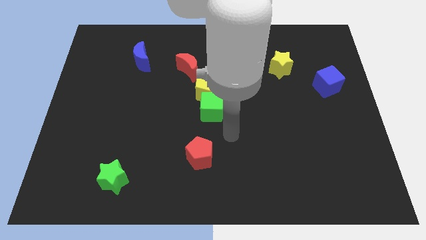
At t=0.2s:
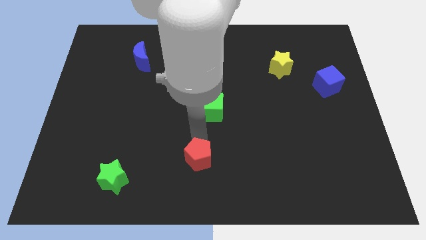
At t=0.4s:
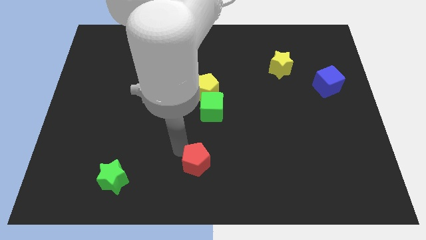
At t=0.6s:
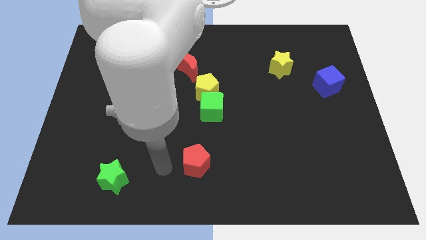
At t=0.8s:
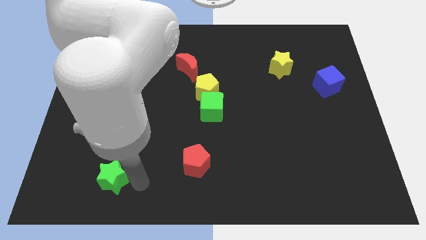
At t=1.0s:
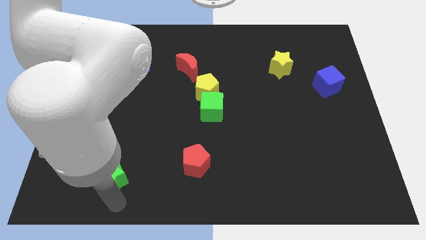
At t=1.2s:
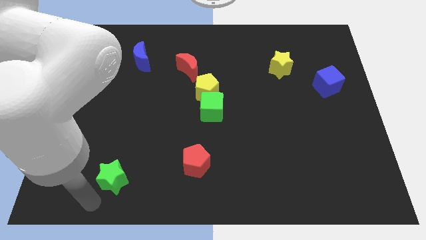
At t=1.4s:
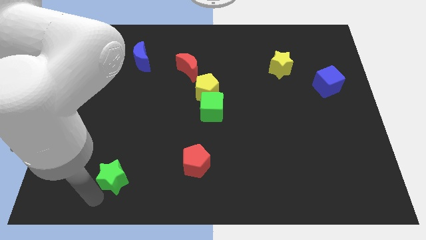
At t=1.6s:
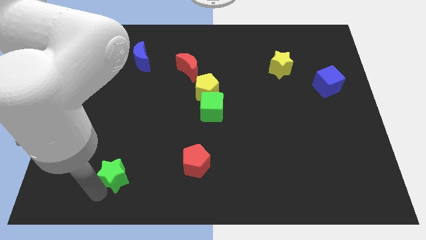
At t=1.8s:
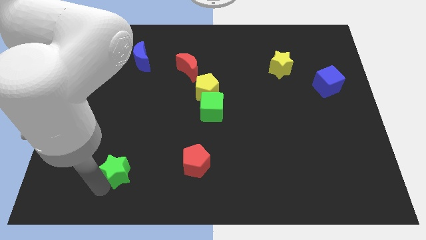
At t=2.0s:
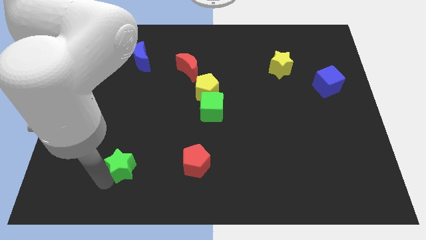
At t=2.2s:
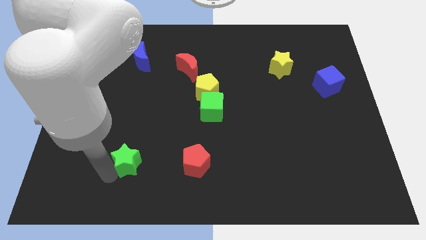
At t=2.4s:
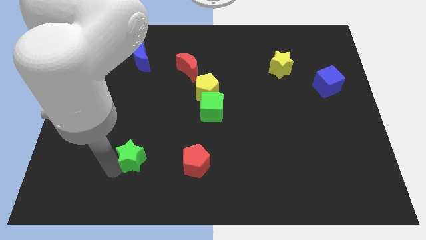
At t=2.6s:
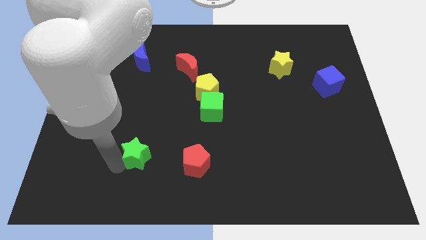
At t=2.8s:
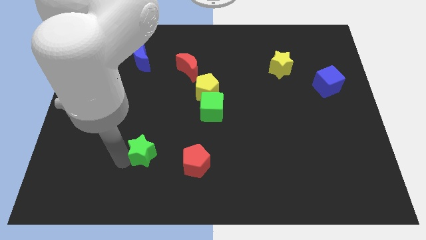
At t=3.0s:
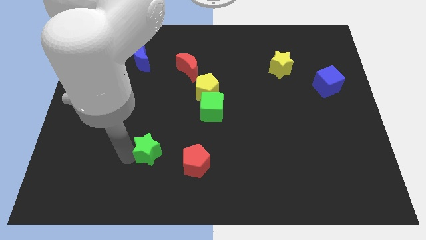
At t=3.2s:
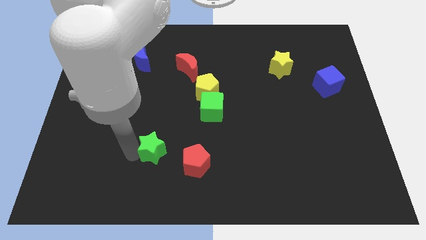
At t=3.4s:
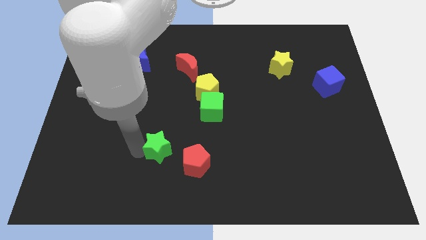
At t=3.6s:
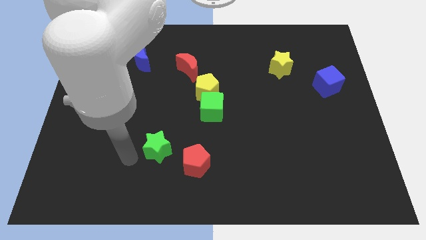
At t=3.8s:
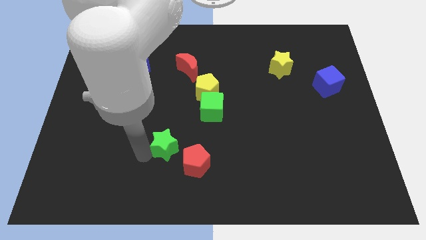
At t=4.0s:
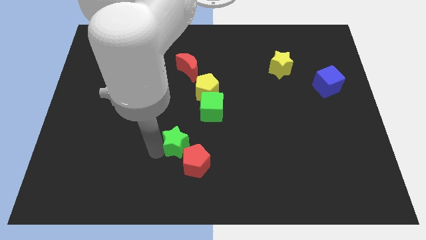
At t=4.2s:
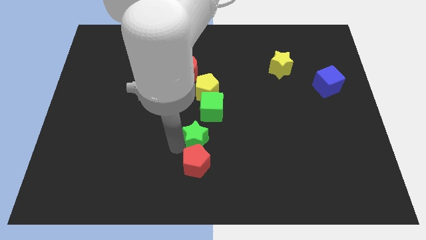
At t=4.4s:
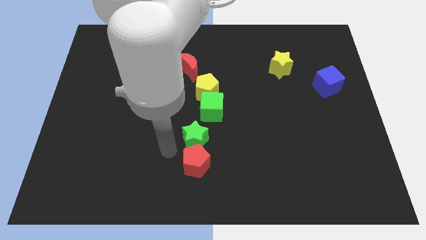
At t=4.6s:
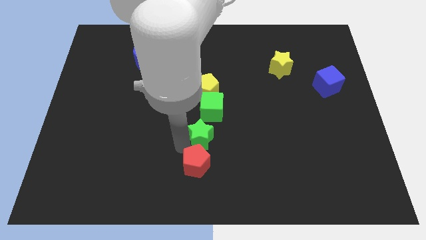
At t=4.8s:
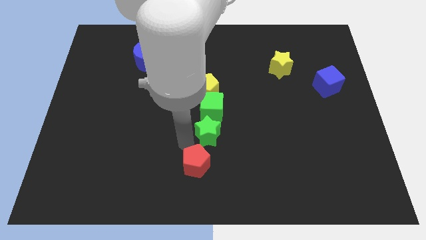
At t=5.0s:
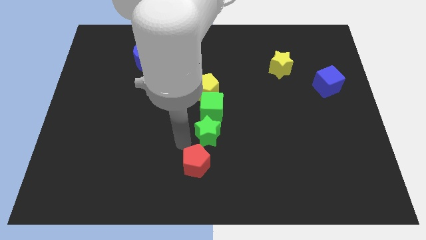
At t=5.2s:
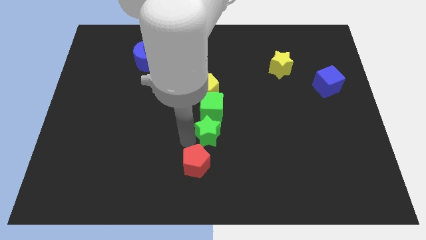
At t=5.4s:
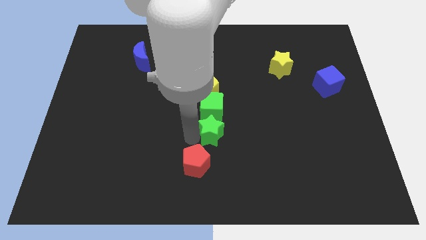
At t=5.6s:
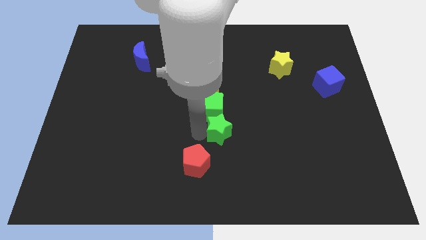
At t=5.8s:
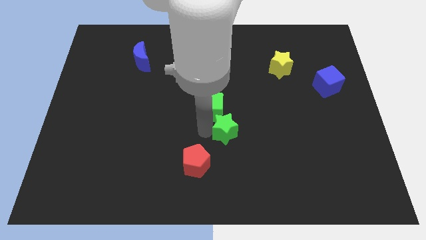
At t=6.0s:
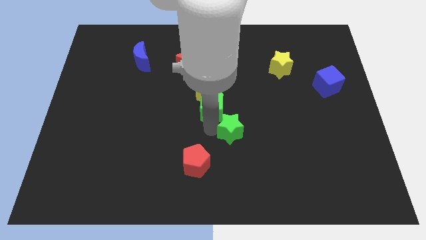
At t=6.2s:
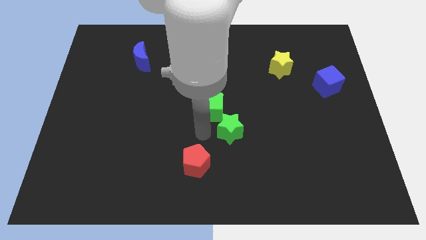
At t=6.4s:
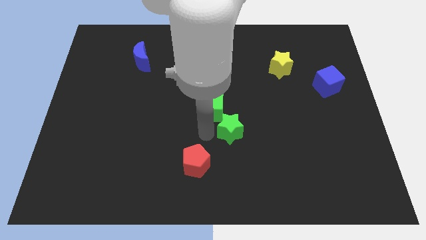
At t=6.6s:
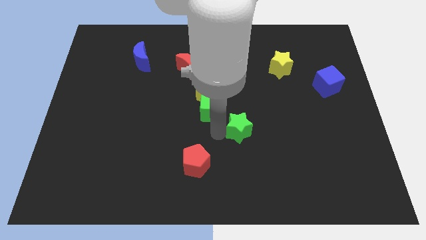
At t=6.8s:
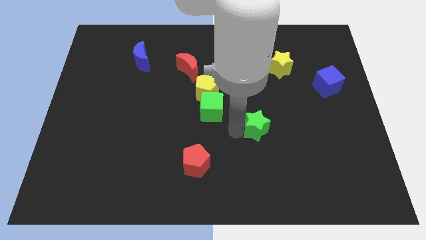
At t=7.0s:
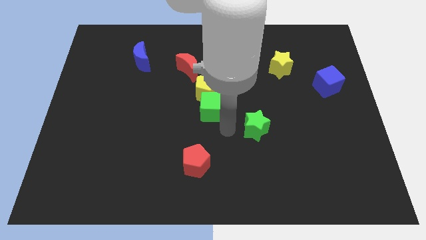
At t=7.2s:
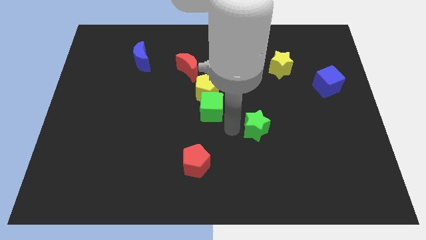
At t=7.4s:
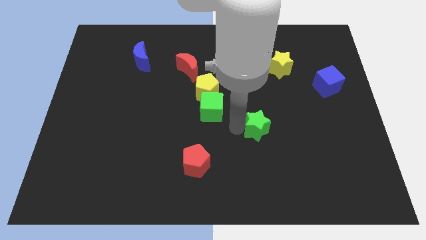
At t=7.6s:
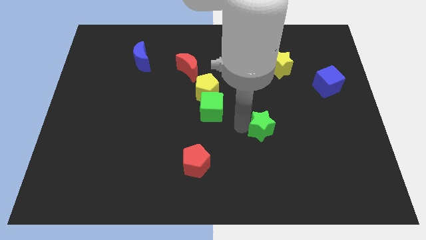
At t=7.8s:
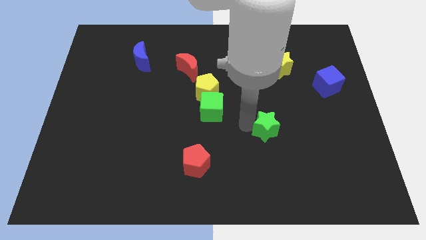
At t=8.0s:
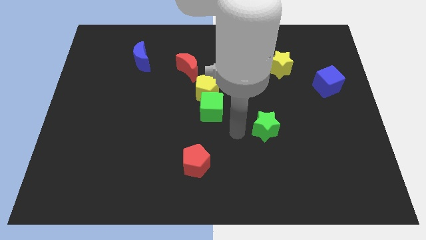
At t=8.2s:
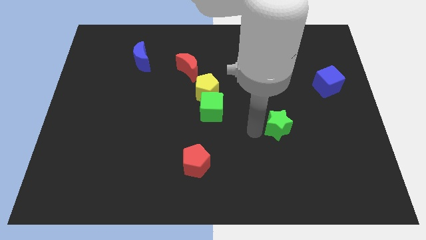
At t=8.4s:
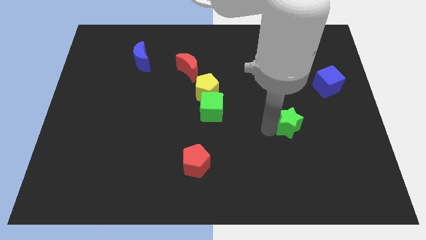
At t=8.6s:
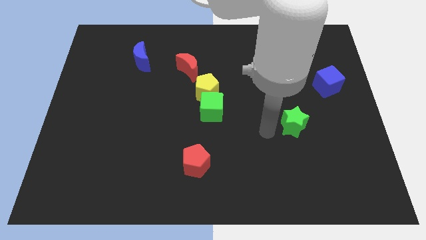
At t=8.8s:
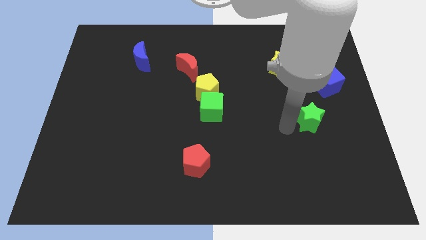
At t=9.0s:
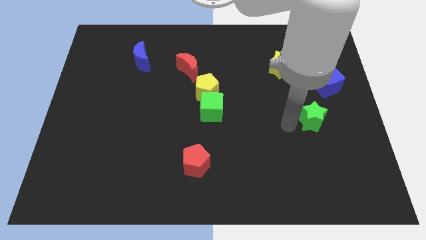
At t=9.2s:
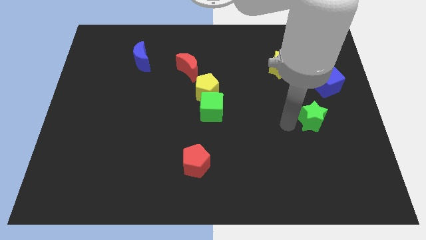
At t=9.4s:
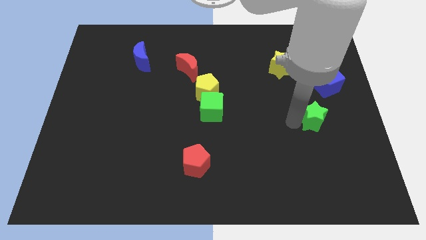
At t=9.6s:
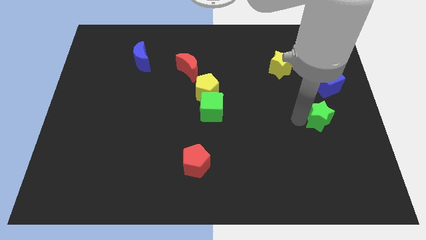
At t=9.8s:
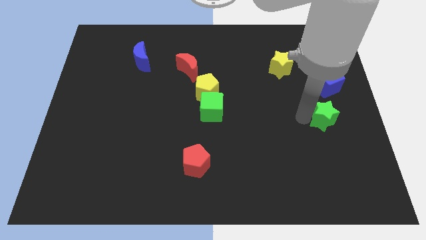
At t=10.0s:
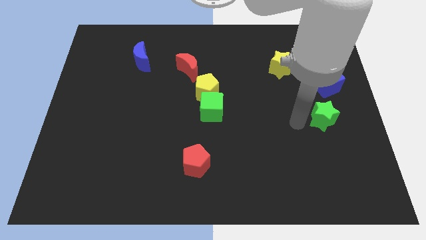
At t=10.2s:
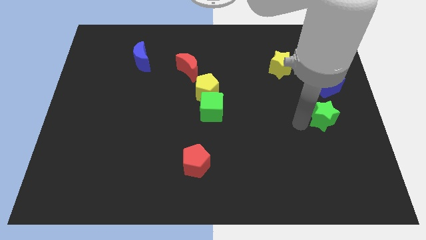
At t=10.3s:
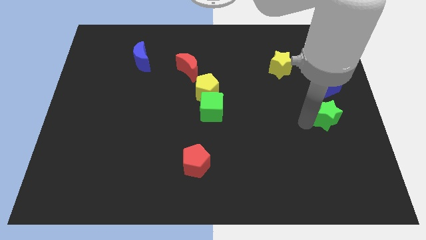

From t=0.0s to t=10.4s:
put the green star to the right side

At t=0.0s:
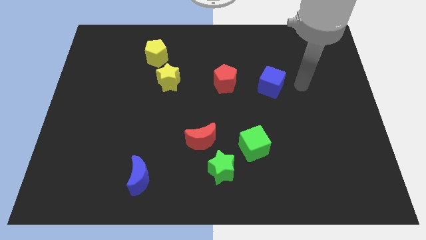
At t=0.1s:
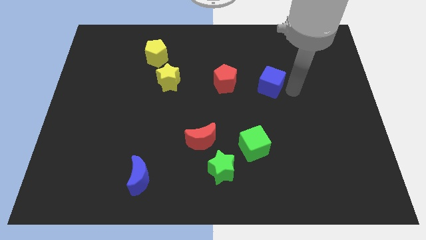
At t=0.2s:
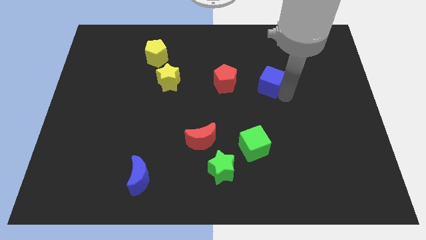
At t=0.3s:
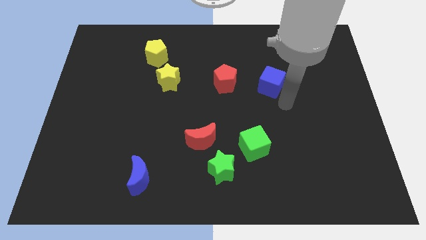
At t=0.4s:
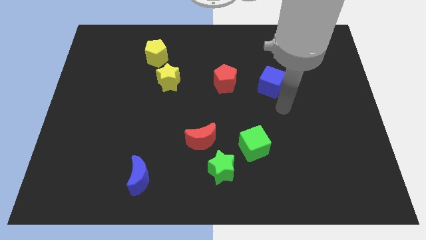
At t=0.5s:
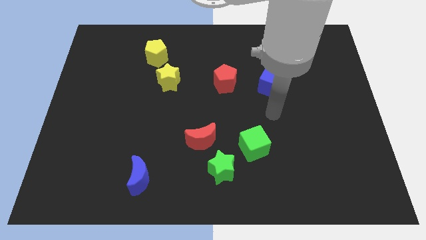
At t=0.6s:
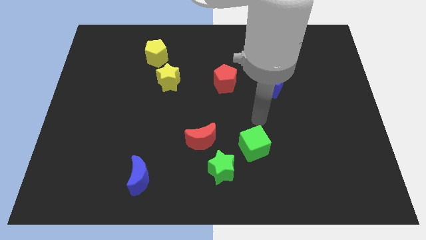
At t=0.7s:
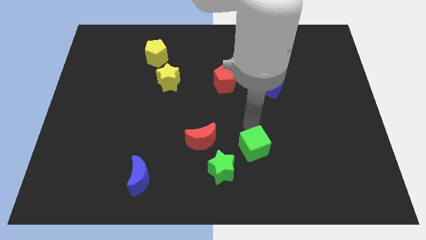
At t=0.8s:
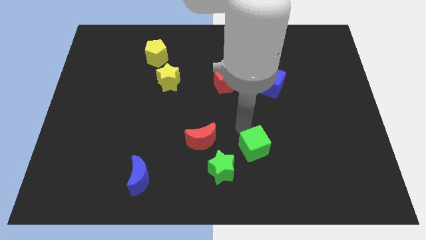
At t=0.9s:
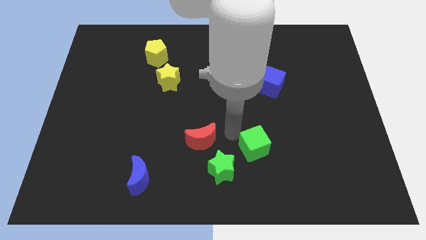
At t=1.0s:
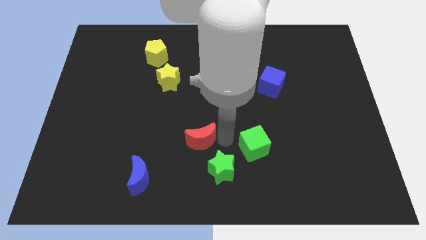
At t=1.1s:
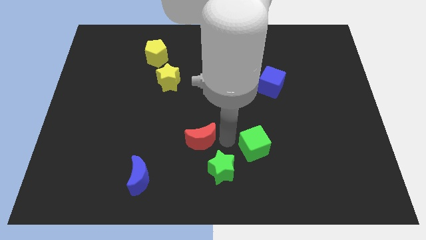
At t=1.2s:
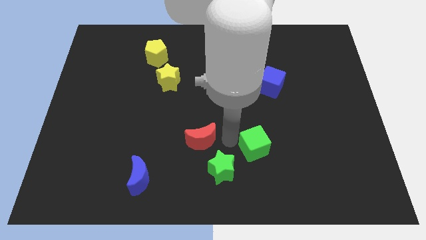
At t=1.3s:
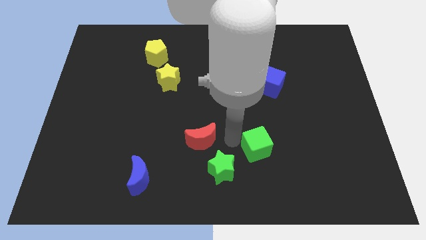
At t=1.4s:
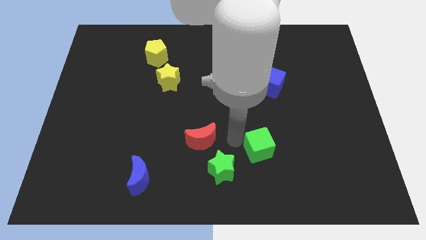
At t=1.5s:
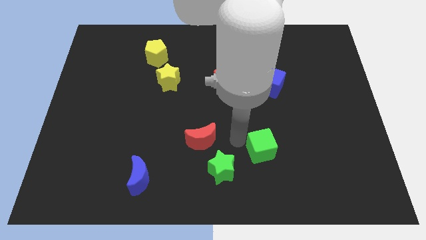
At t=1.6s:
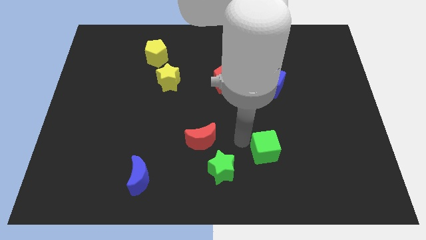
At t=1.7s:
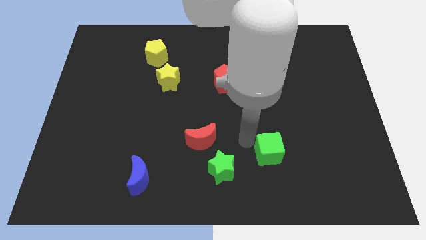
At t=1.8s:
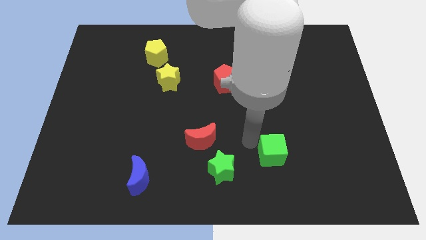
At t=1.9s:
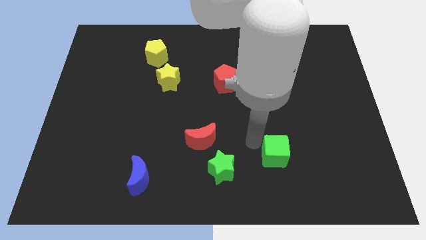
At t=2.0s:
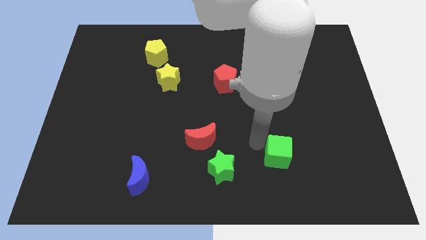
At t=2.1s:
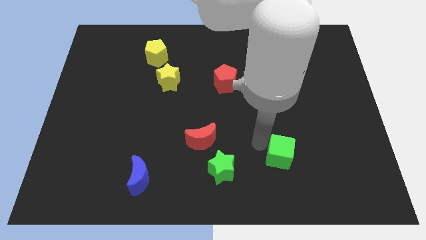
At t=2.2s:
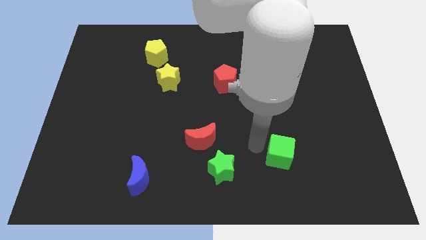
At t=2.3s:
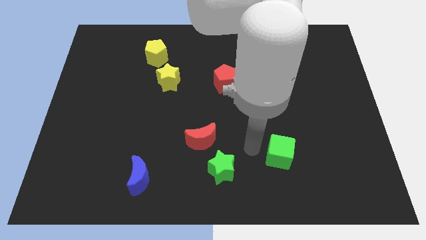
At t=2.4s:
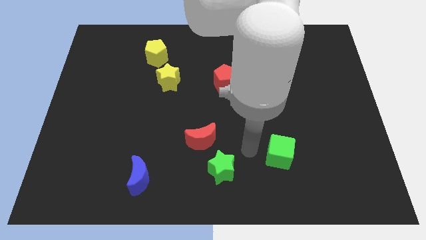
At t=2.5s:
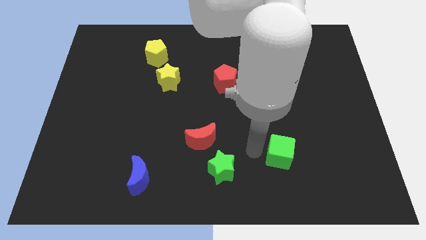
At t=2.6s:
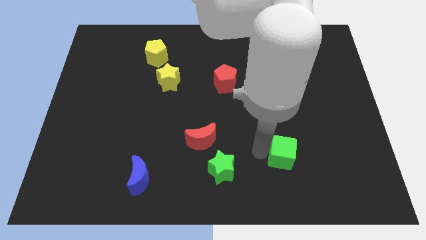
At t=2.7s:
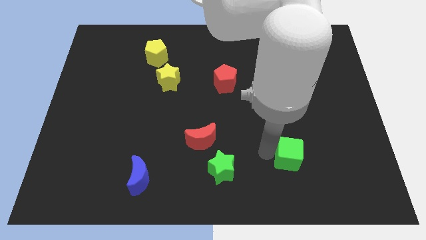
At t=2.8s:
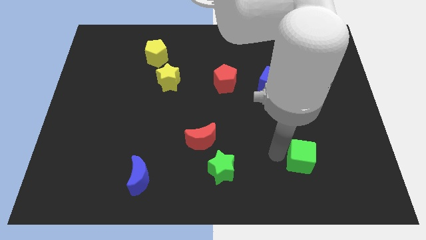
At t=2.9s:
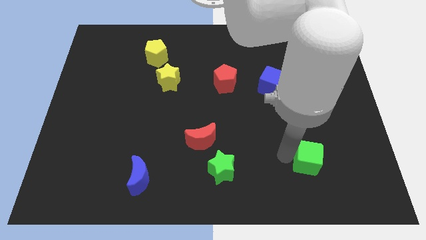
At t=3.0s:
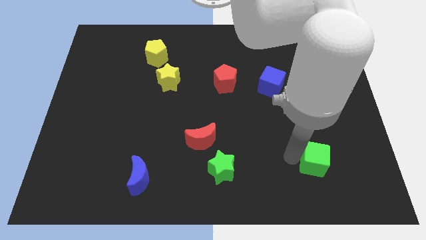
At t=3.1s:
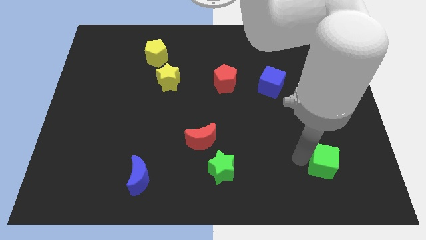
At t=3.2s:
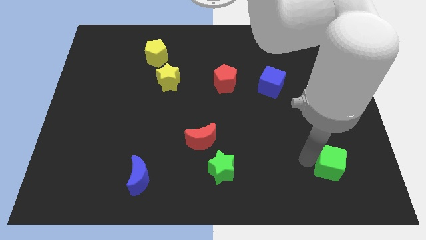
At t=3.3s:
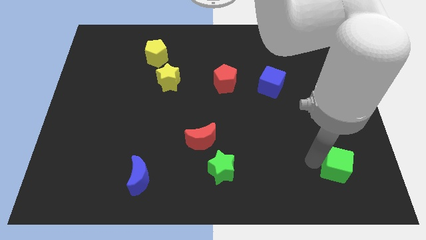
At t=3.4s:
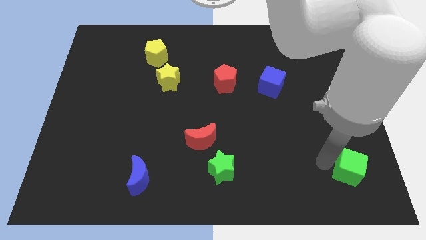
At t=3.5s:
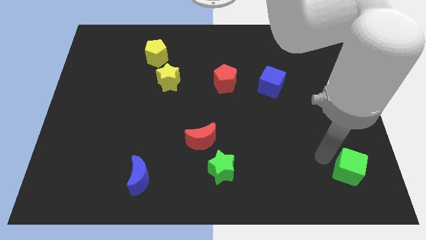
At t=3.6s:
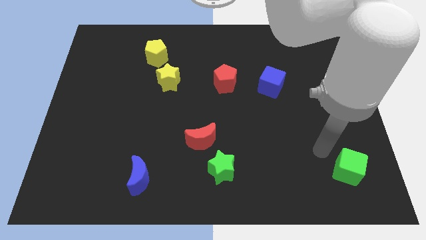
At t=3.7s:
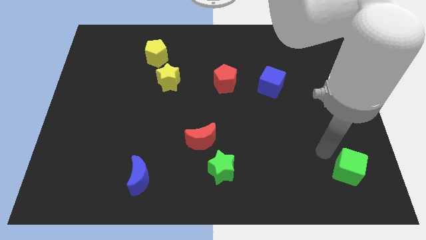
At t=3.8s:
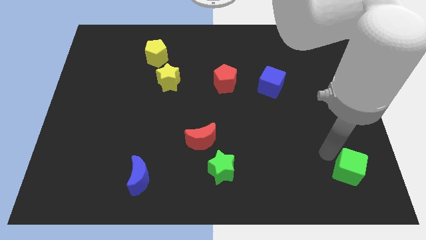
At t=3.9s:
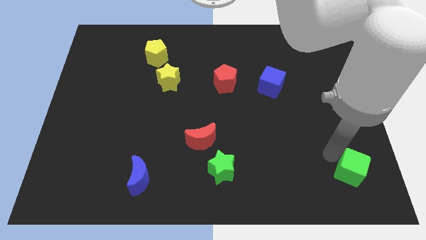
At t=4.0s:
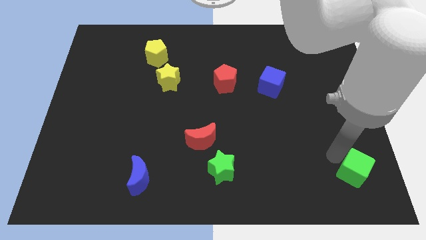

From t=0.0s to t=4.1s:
slide the green cube to the bottom right
